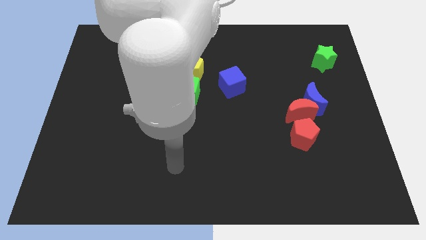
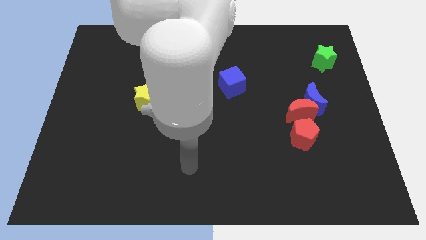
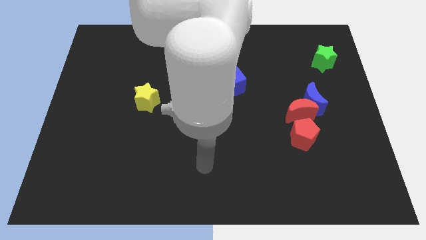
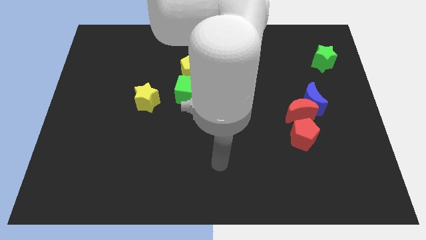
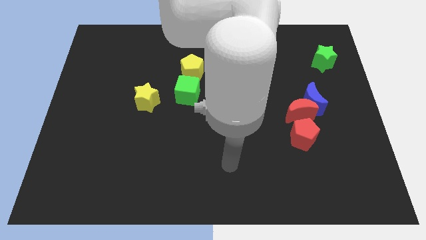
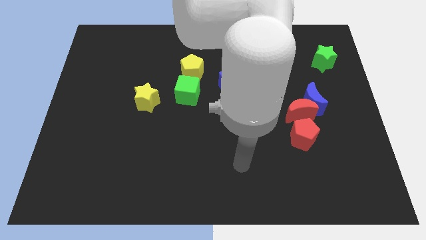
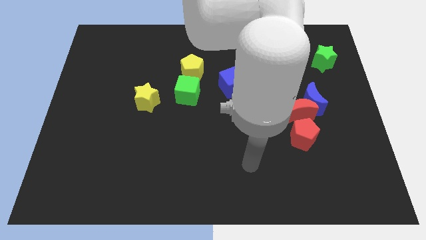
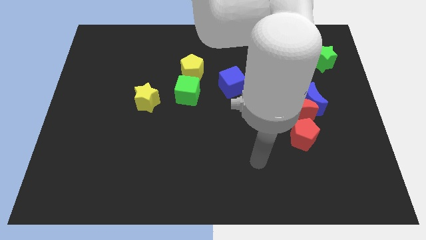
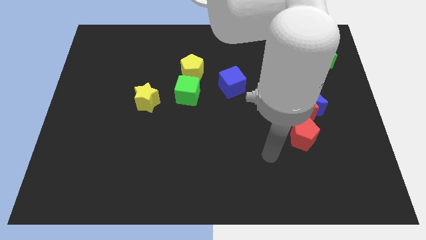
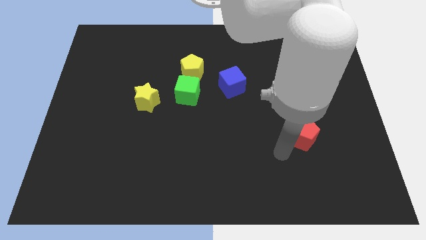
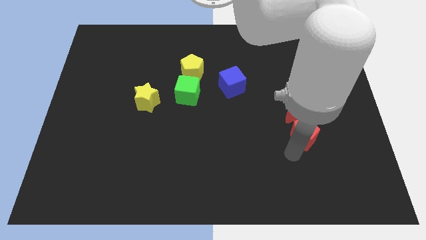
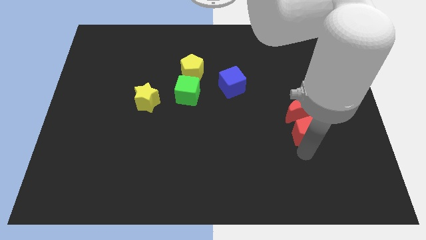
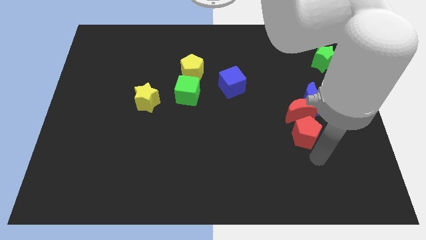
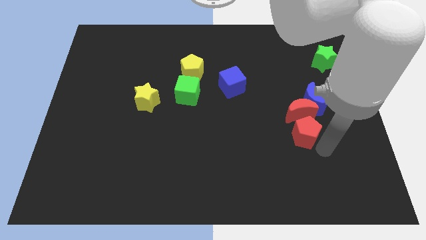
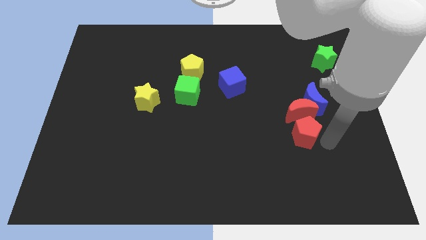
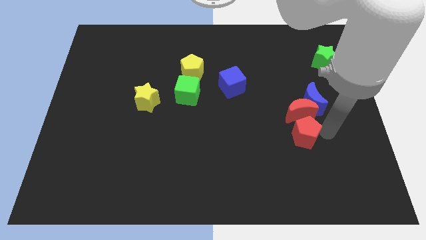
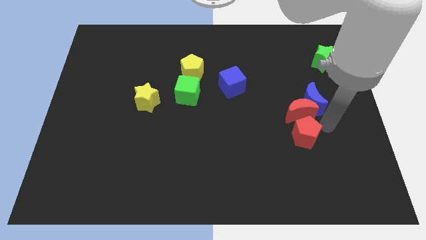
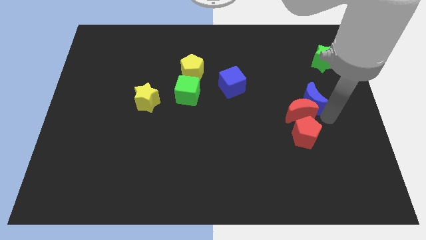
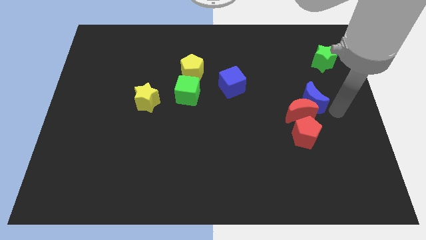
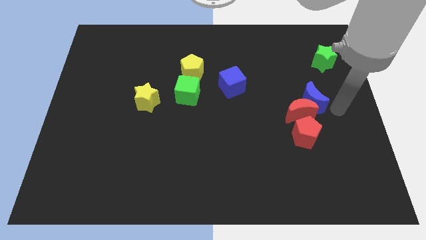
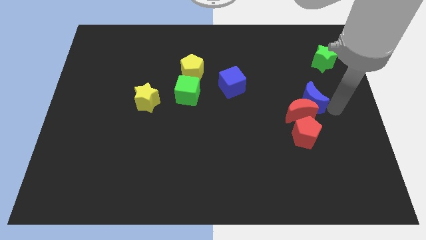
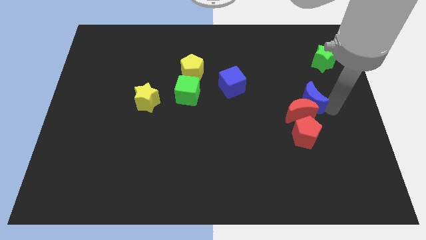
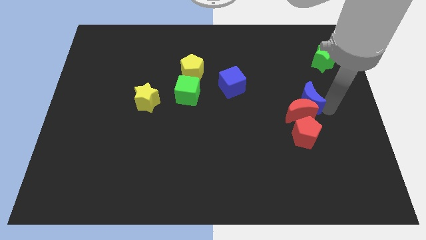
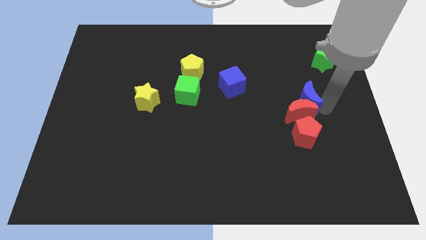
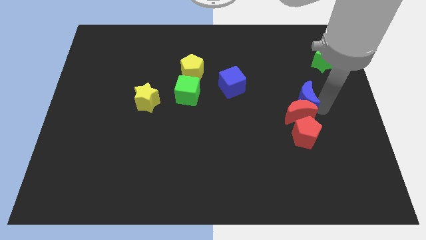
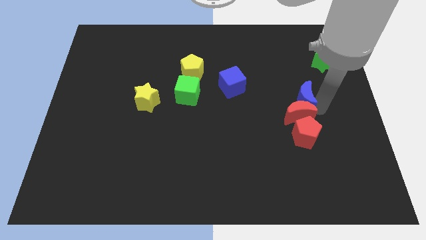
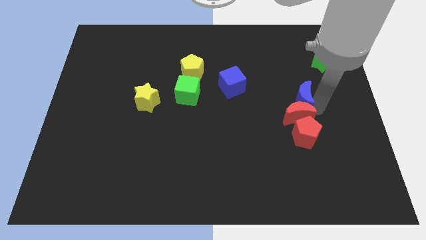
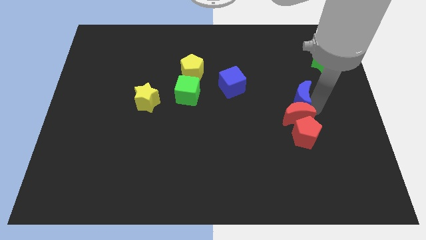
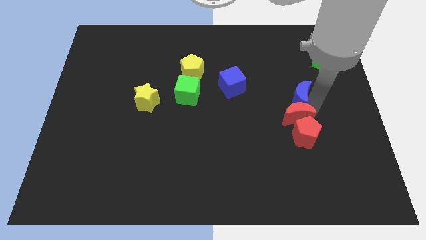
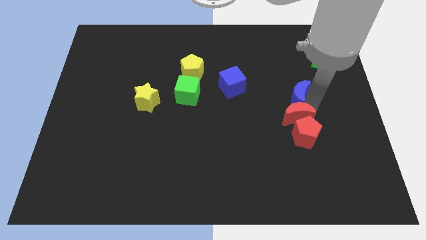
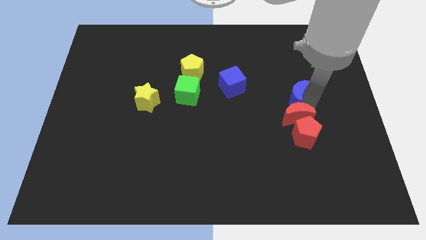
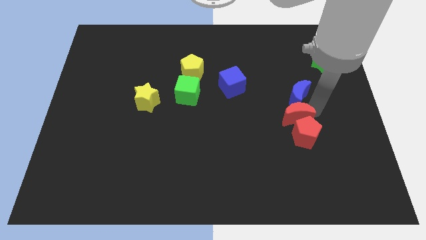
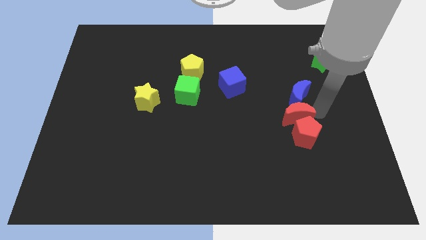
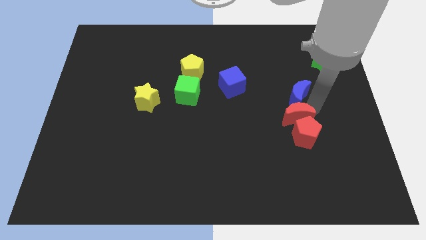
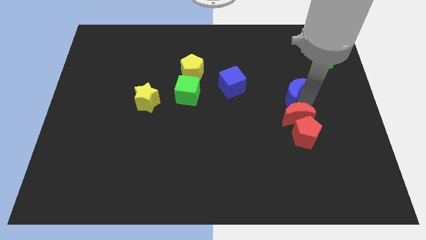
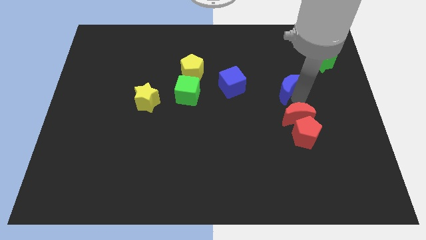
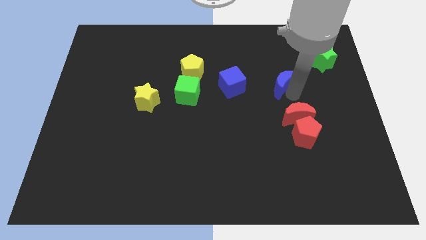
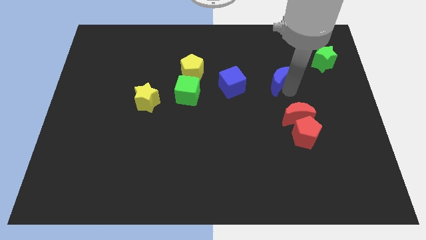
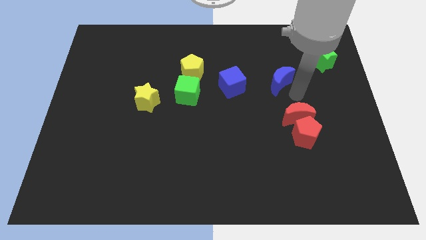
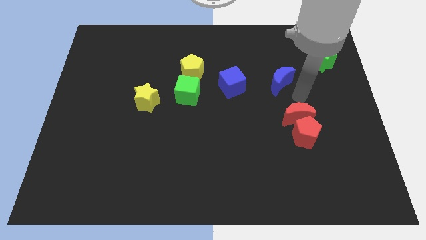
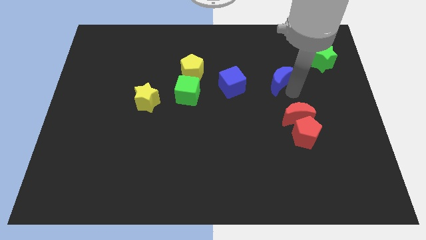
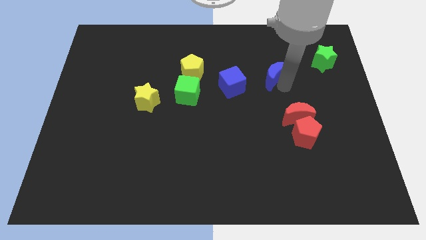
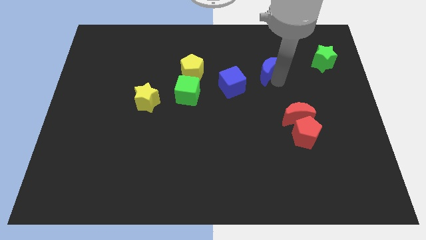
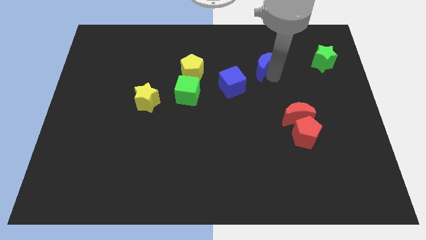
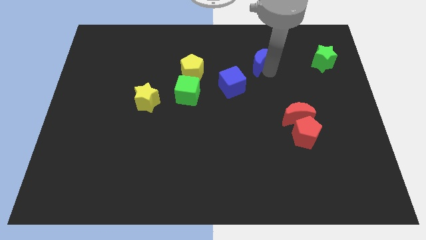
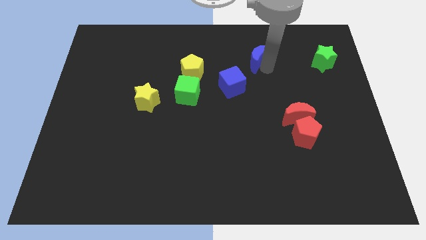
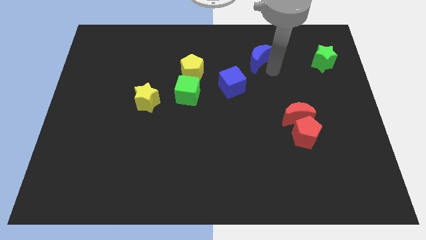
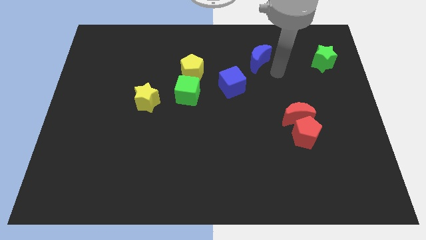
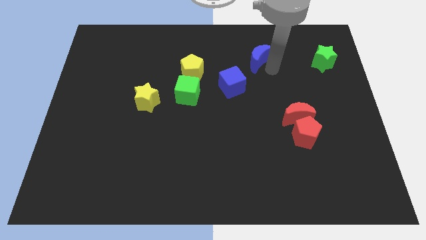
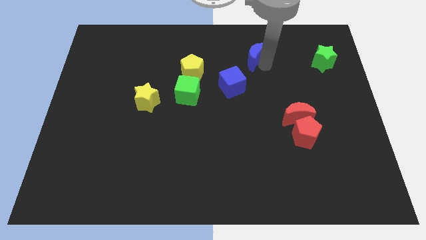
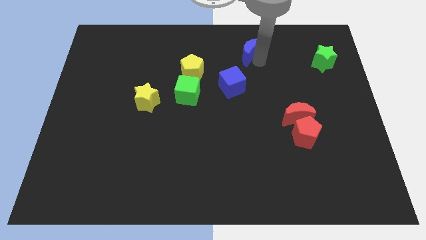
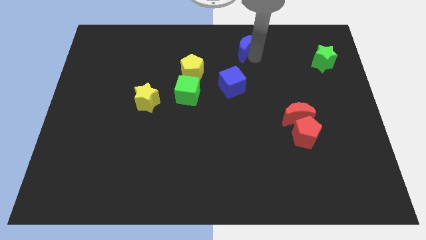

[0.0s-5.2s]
push the blue moon to the towards your base

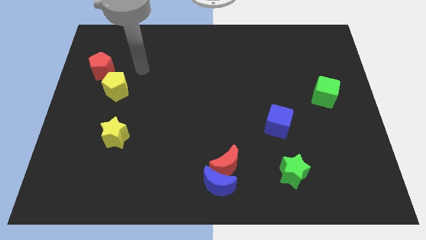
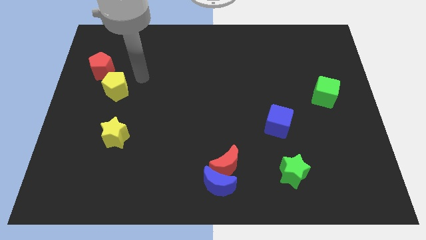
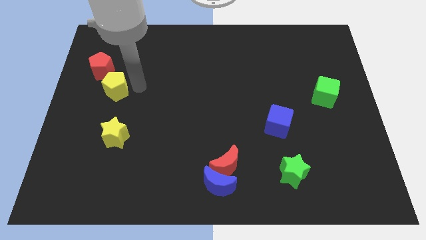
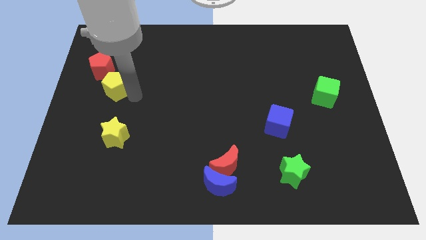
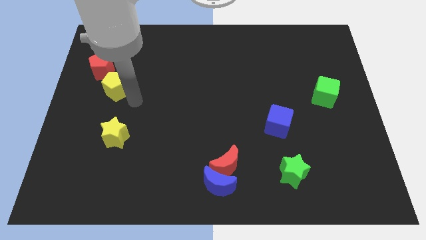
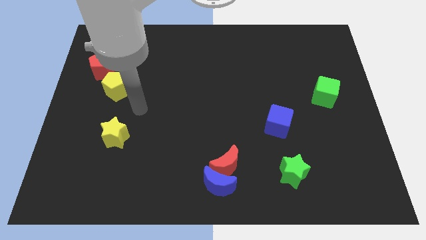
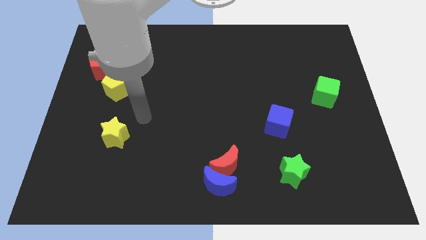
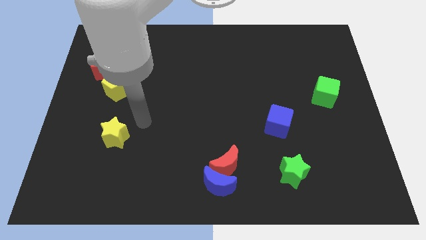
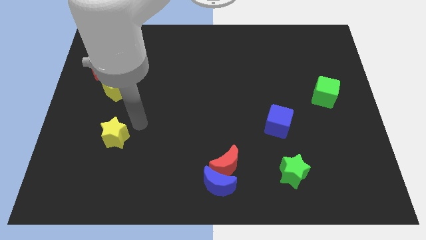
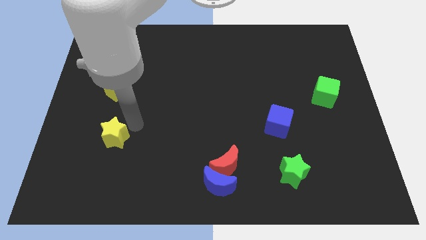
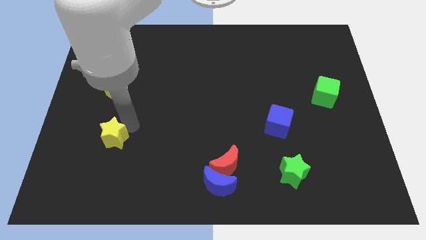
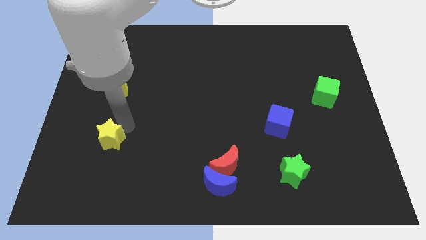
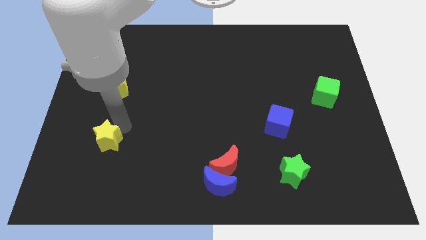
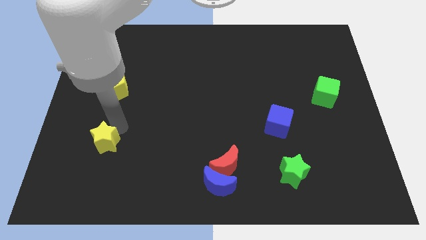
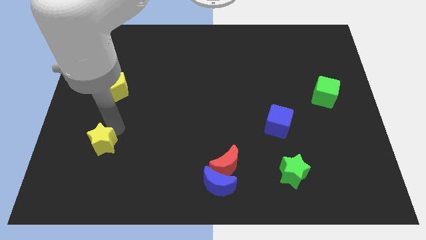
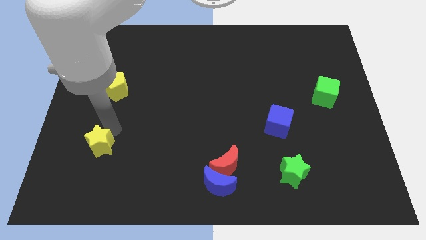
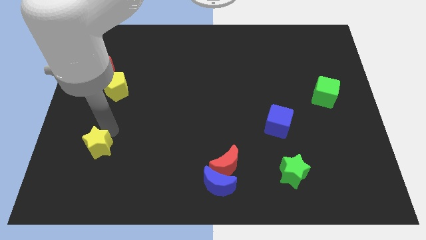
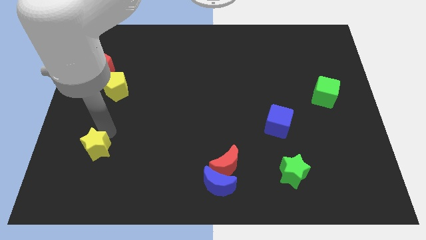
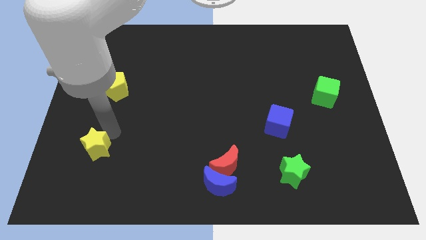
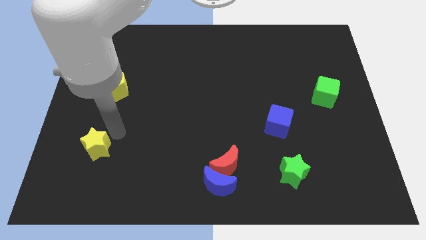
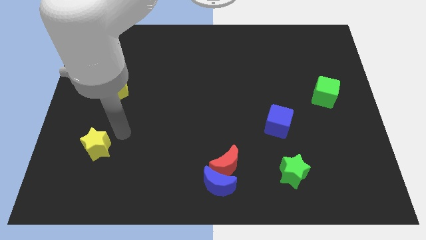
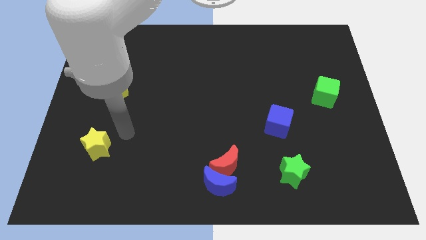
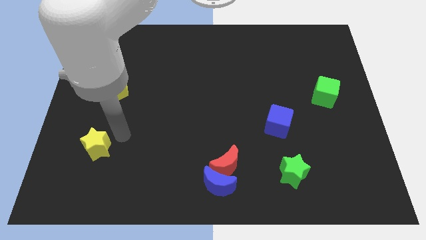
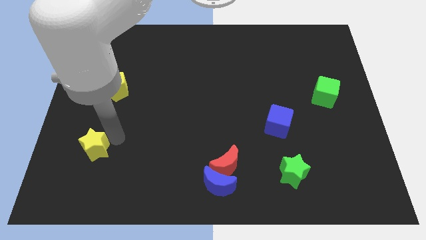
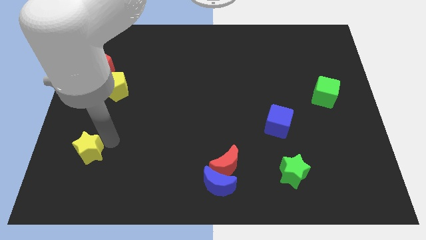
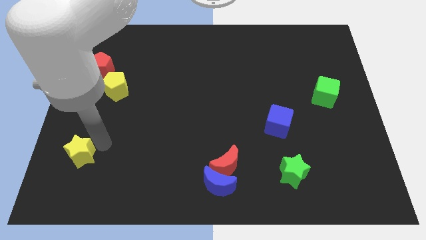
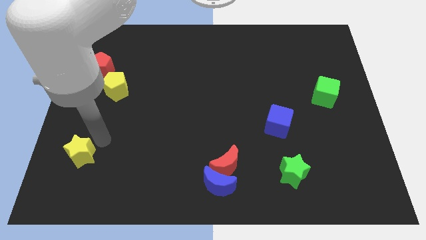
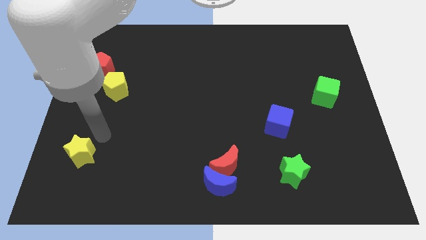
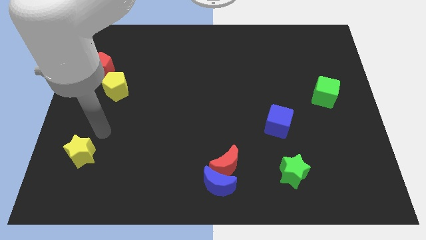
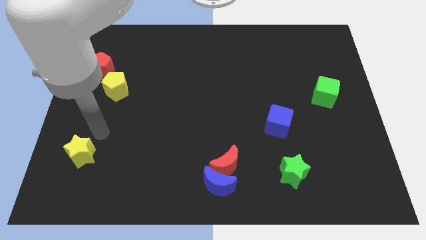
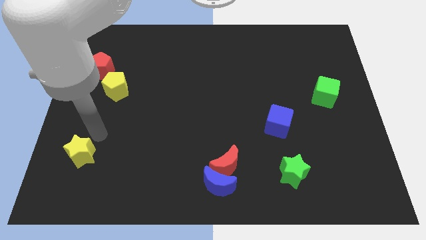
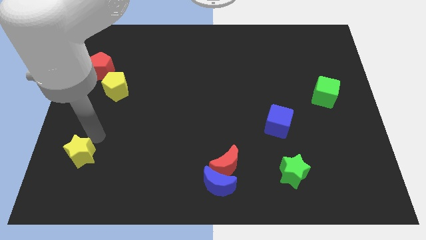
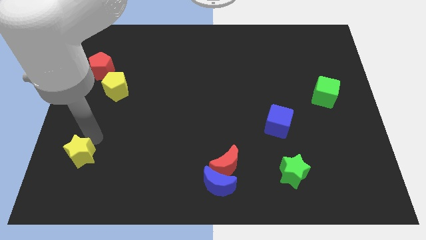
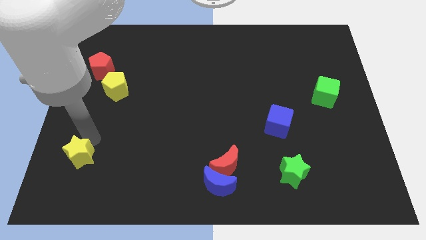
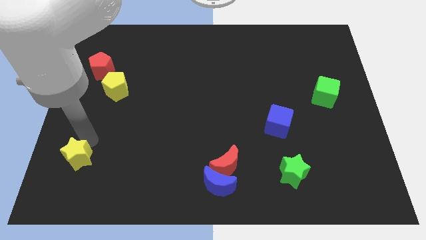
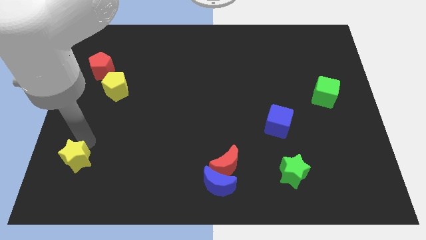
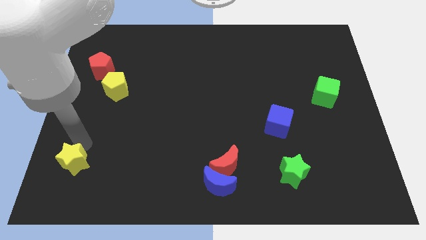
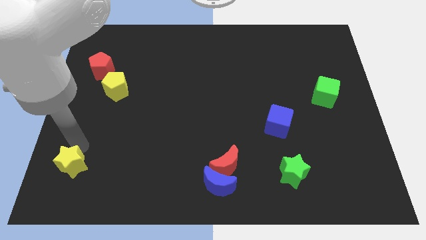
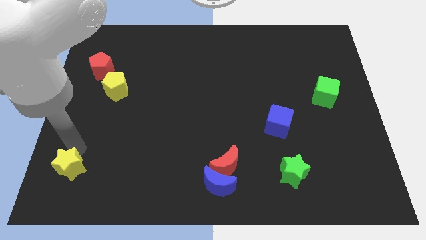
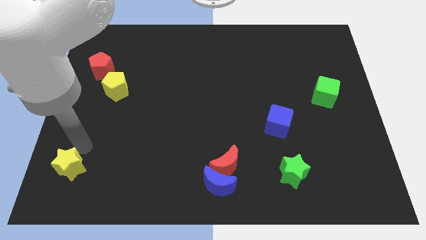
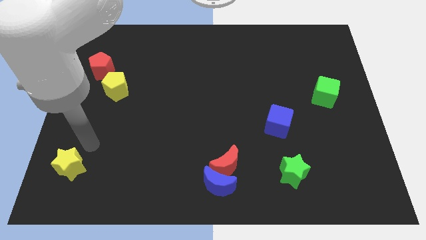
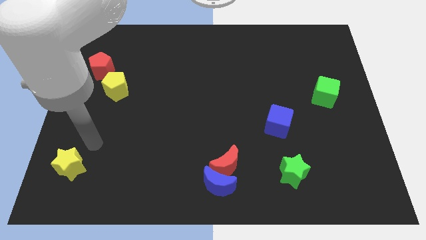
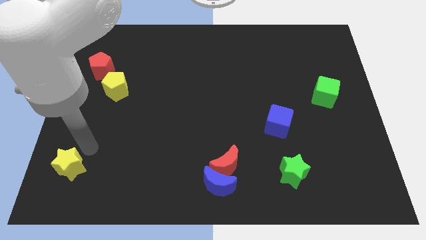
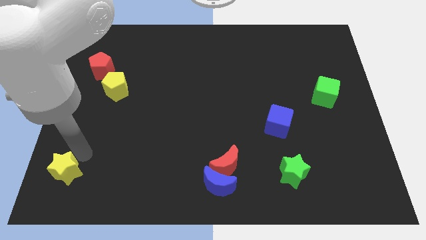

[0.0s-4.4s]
push the yellow star to the bottom left corner
